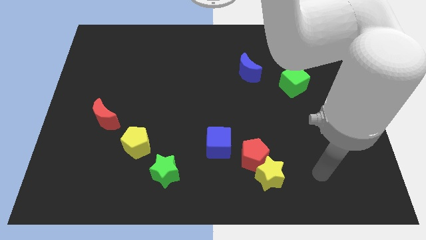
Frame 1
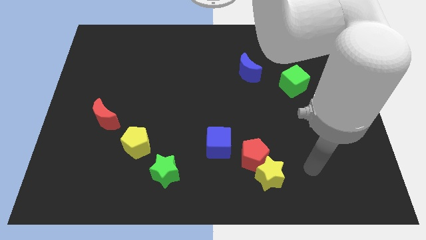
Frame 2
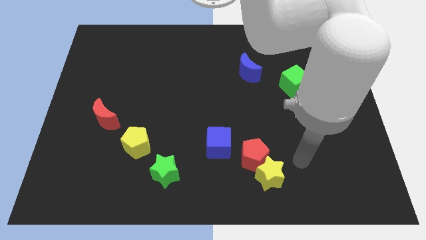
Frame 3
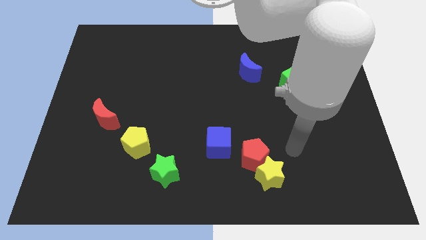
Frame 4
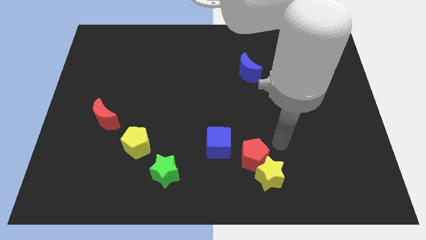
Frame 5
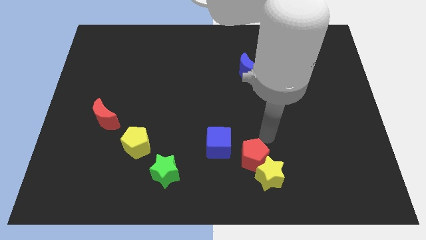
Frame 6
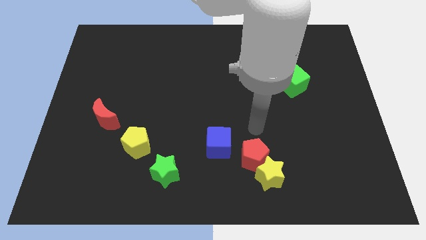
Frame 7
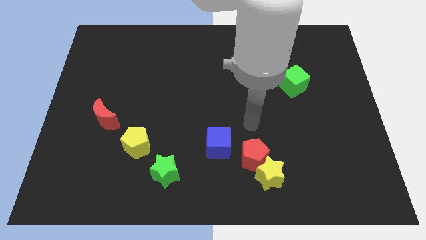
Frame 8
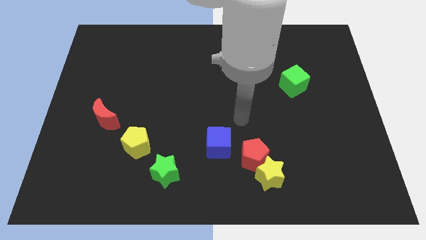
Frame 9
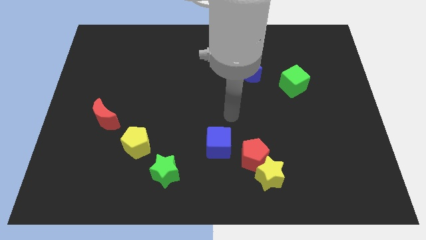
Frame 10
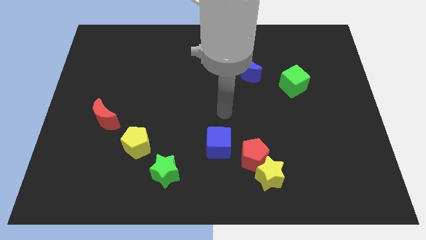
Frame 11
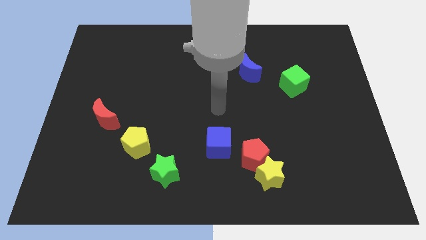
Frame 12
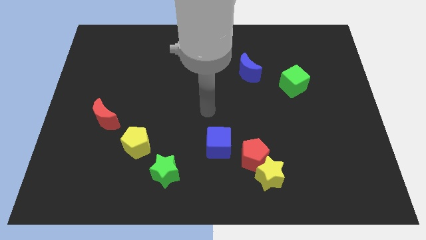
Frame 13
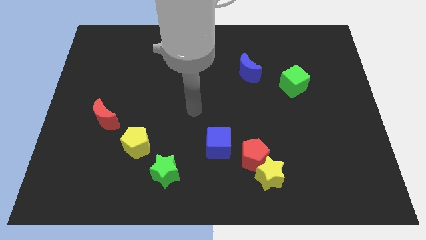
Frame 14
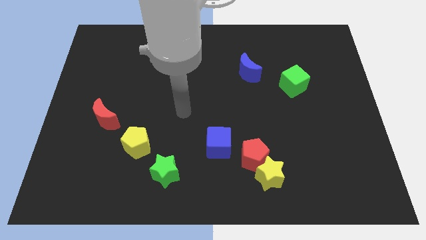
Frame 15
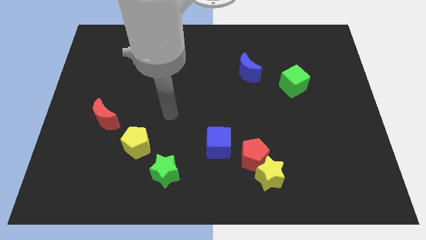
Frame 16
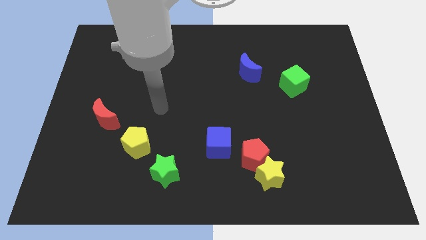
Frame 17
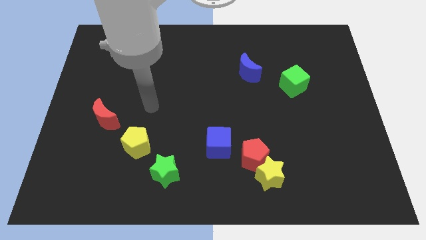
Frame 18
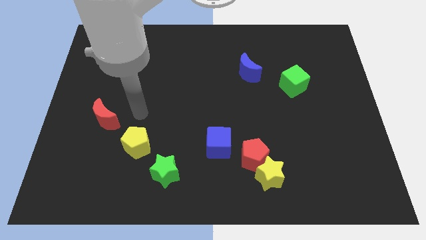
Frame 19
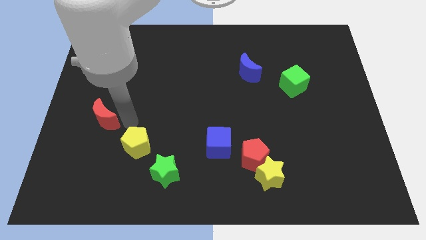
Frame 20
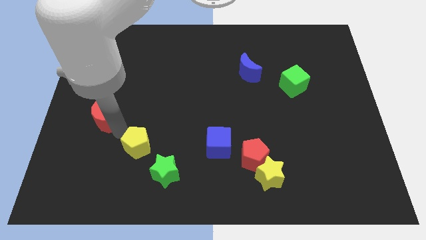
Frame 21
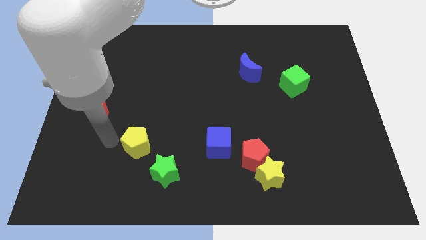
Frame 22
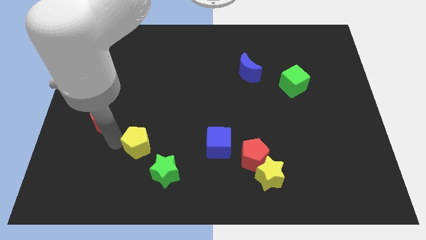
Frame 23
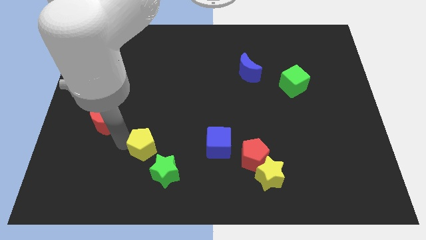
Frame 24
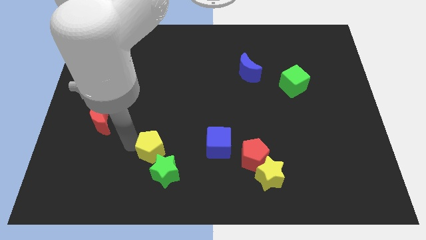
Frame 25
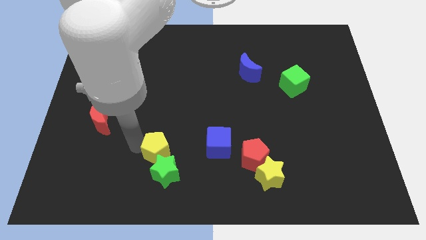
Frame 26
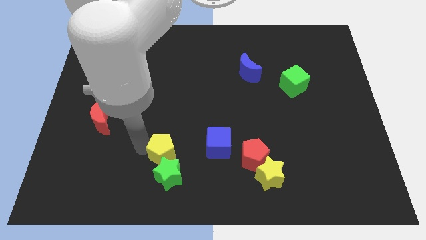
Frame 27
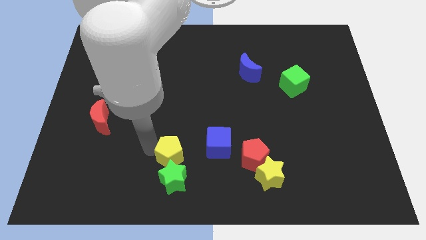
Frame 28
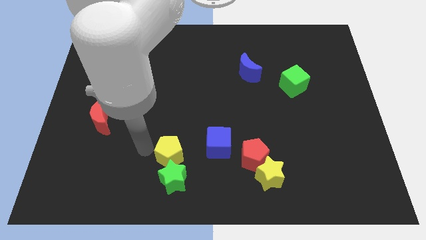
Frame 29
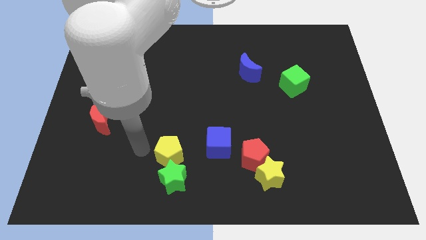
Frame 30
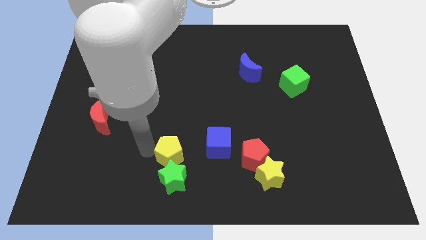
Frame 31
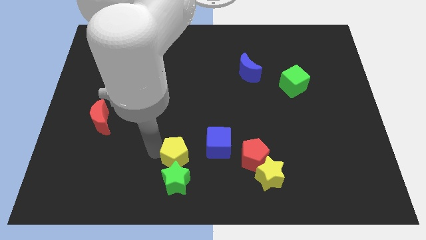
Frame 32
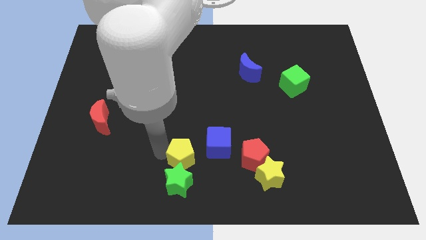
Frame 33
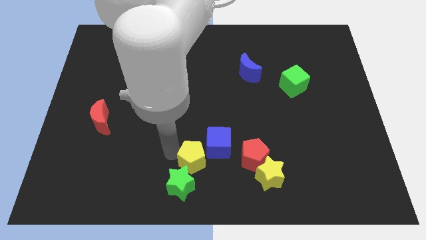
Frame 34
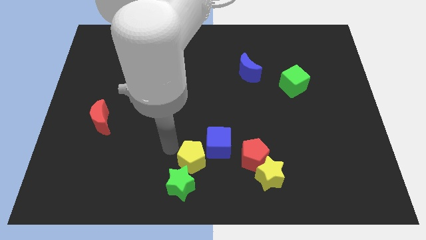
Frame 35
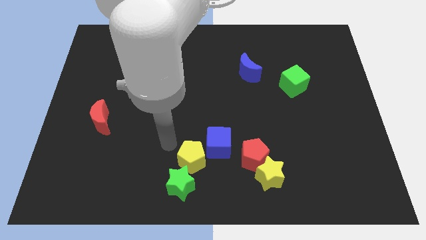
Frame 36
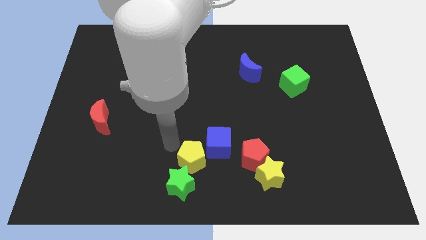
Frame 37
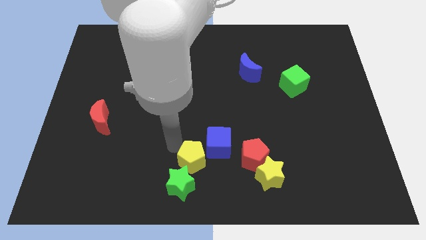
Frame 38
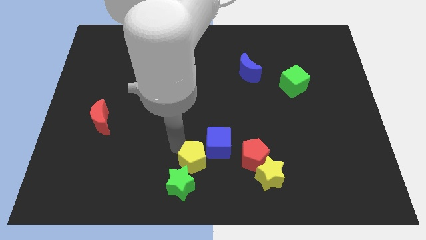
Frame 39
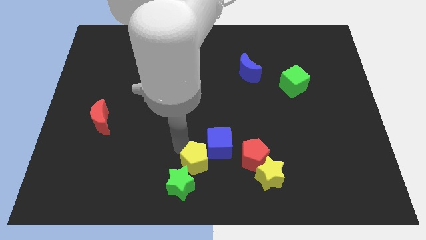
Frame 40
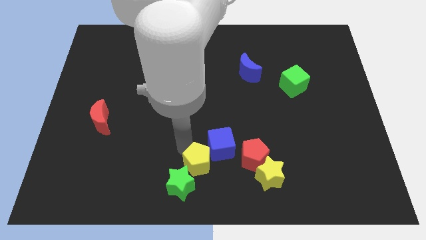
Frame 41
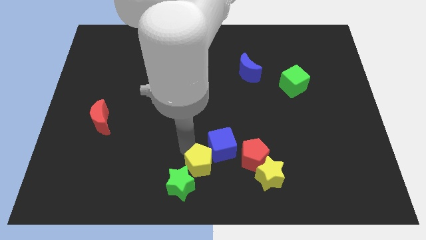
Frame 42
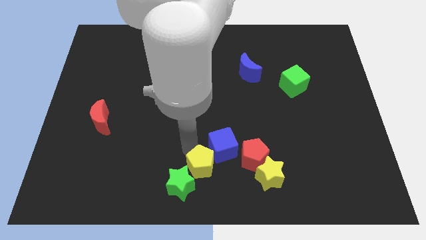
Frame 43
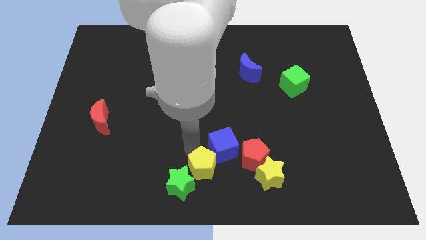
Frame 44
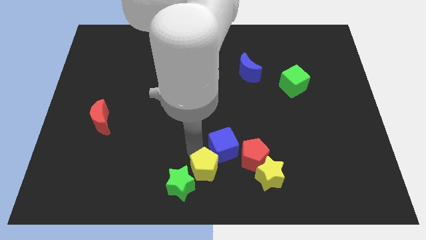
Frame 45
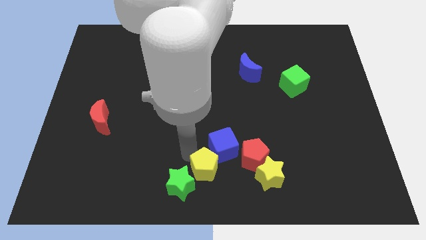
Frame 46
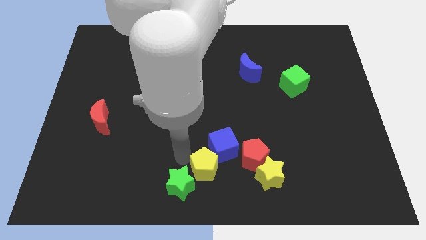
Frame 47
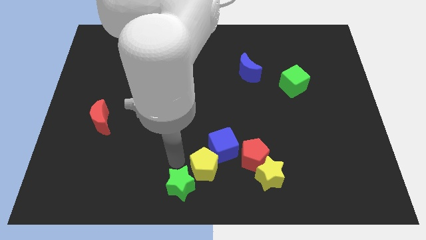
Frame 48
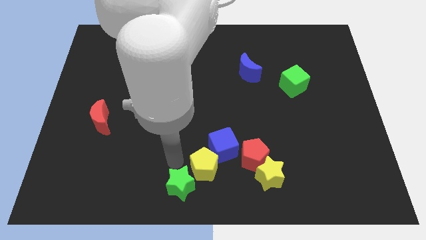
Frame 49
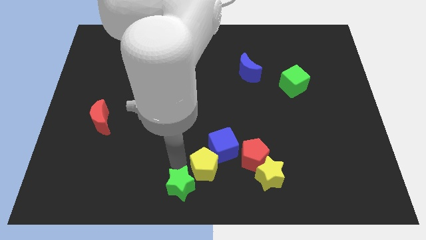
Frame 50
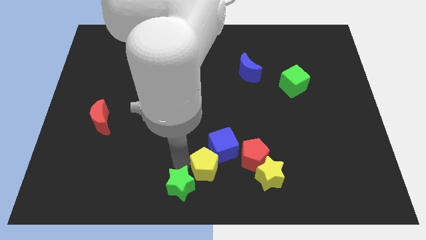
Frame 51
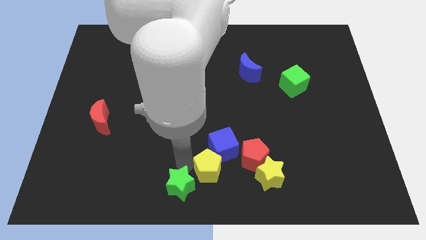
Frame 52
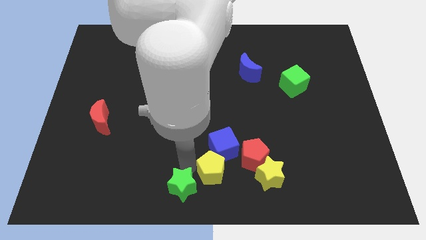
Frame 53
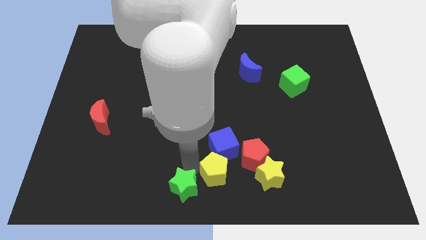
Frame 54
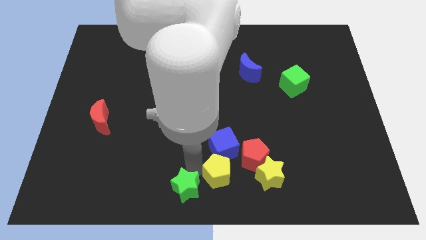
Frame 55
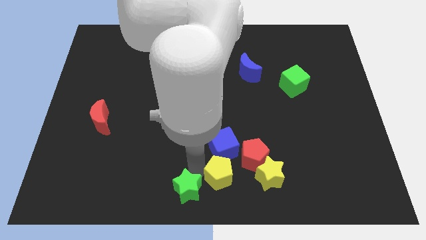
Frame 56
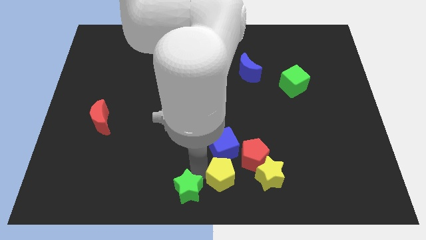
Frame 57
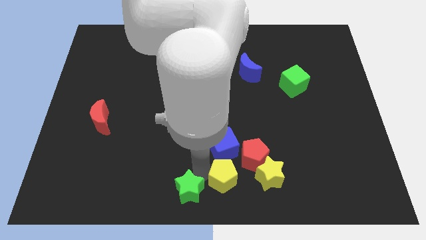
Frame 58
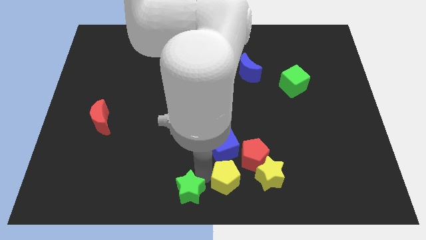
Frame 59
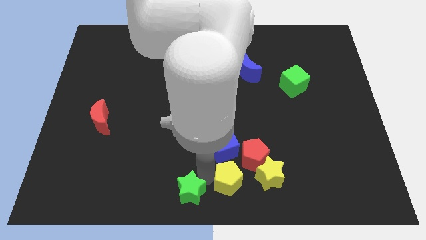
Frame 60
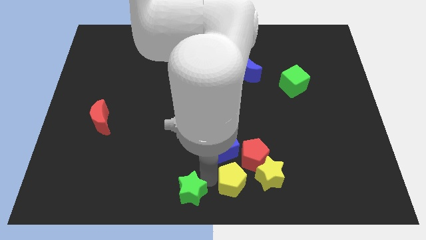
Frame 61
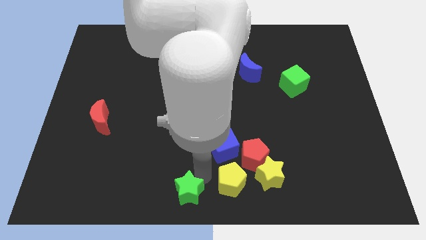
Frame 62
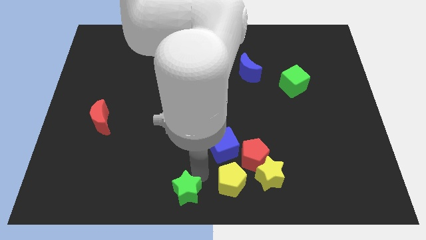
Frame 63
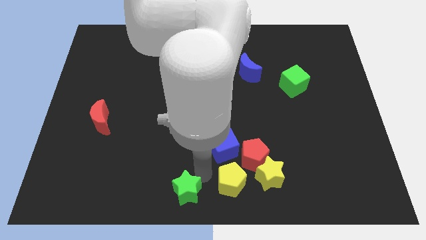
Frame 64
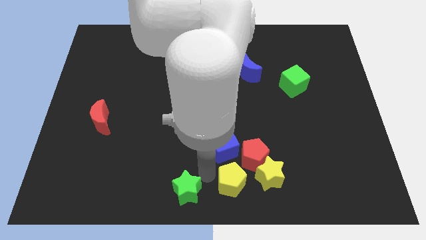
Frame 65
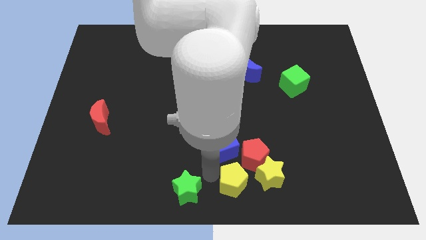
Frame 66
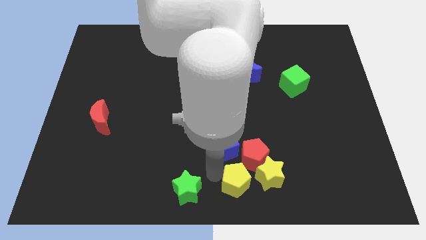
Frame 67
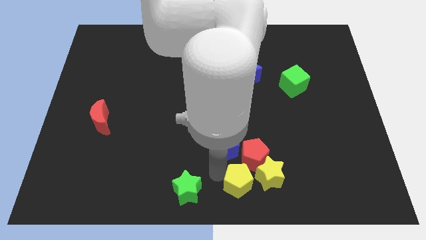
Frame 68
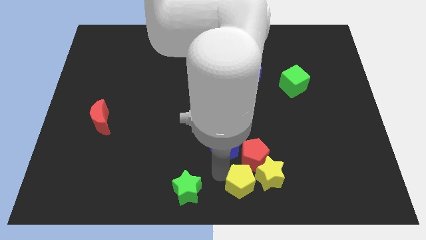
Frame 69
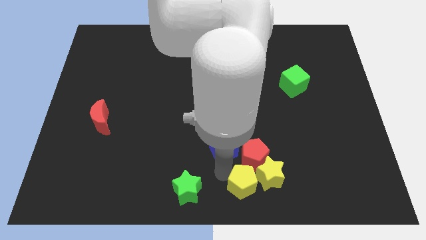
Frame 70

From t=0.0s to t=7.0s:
push the yellow pentagon next to the yellow star
